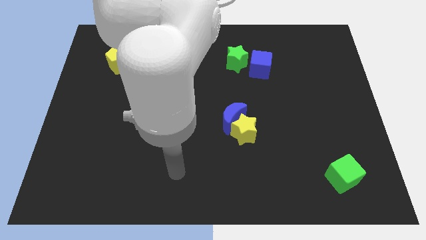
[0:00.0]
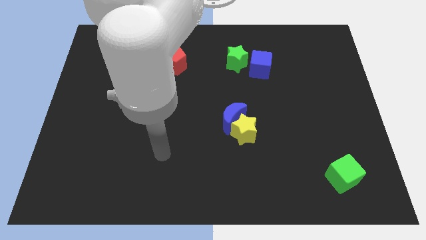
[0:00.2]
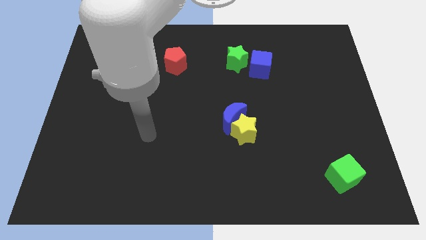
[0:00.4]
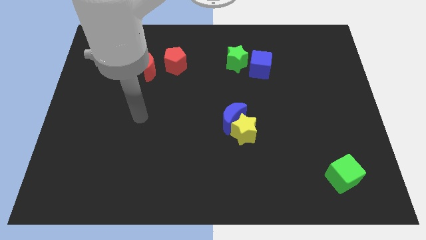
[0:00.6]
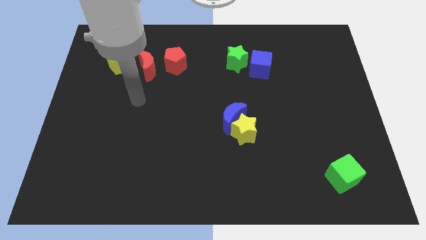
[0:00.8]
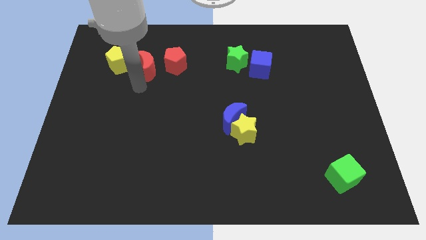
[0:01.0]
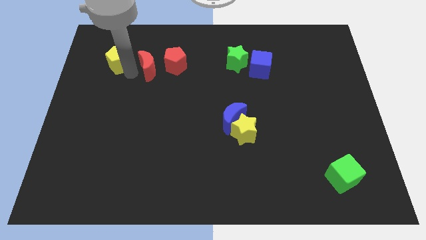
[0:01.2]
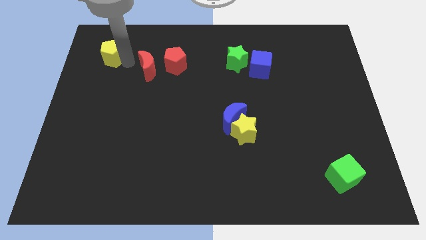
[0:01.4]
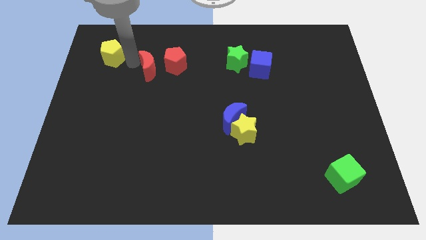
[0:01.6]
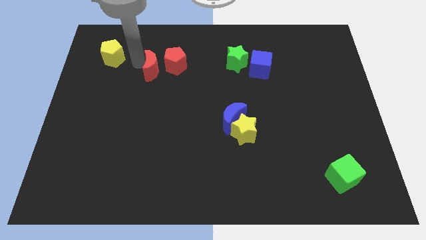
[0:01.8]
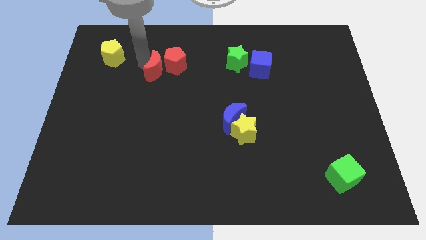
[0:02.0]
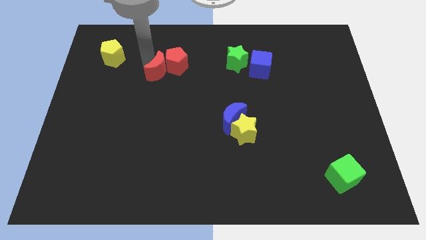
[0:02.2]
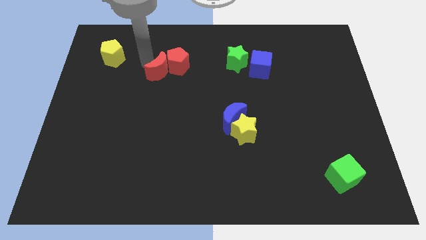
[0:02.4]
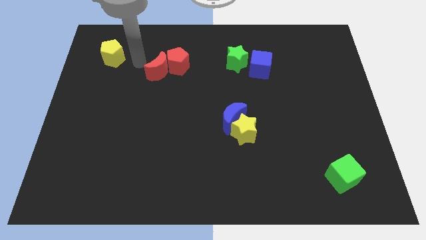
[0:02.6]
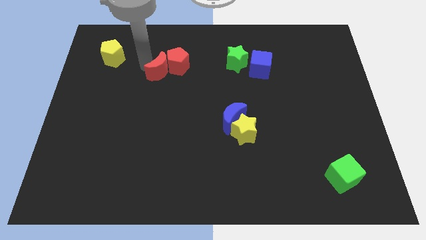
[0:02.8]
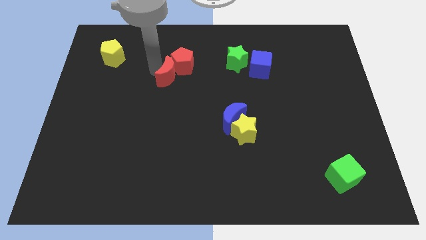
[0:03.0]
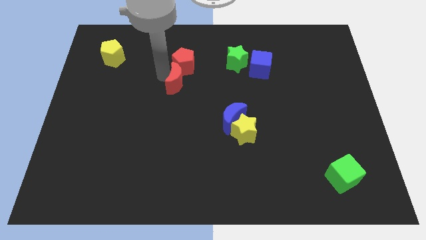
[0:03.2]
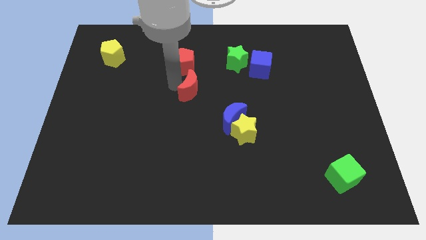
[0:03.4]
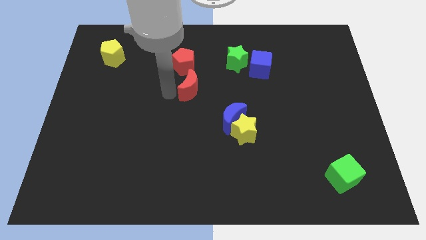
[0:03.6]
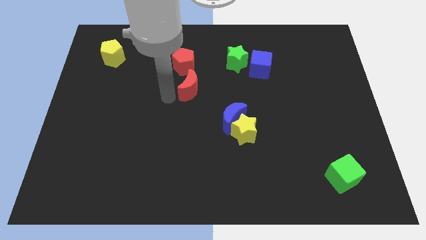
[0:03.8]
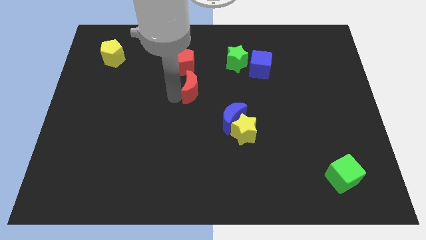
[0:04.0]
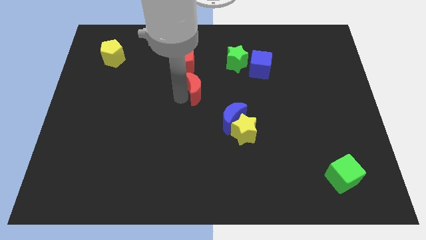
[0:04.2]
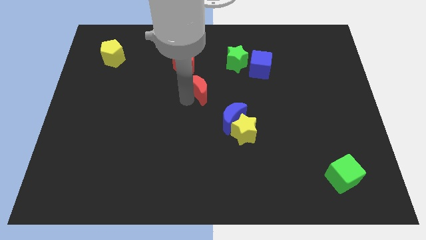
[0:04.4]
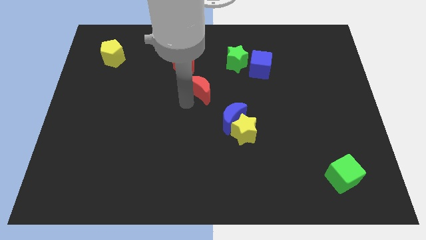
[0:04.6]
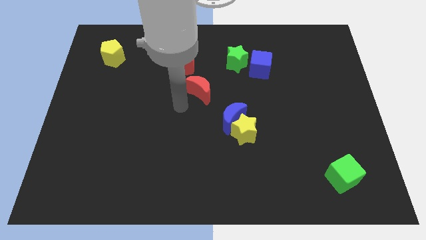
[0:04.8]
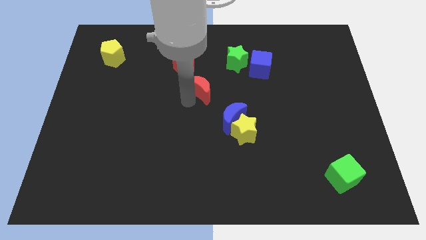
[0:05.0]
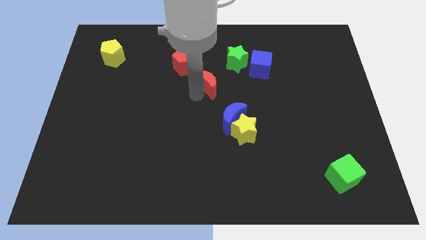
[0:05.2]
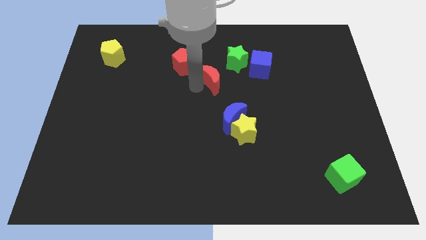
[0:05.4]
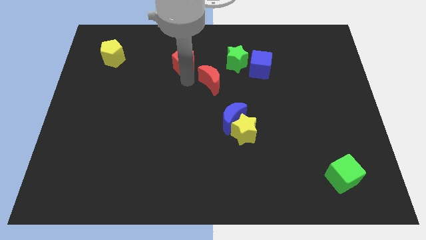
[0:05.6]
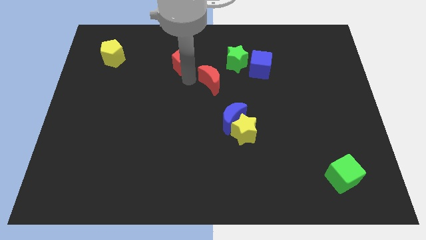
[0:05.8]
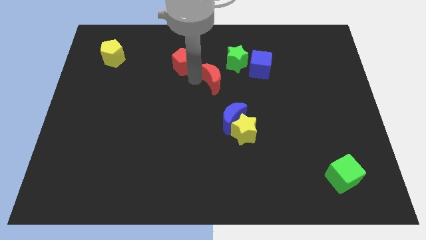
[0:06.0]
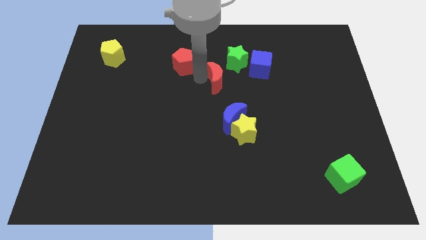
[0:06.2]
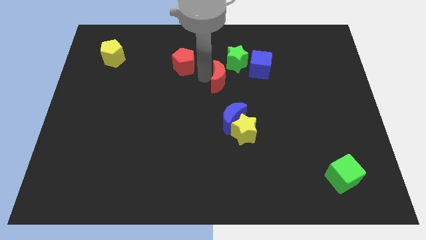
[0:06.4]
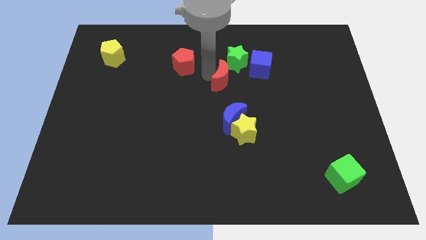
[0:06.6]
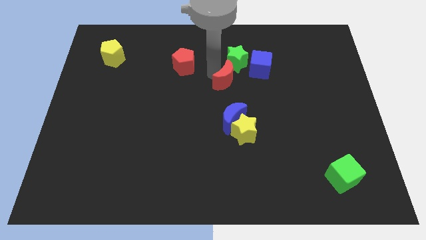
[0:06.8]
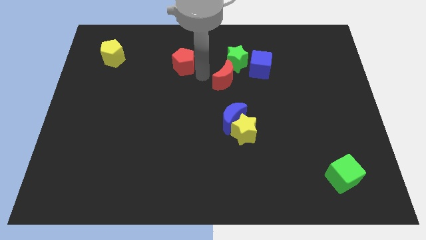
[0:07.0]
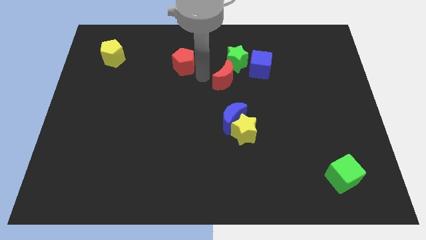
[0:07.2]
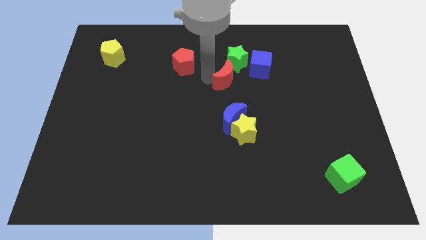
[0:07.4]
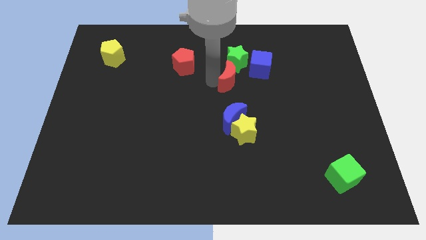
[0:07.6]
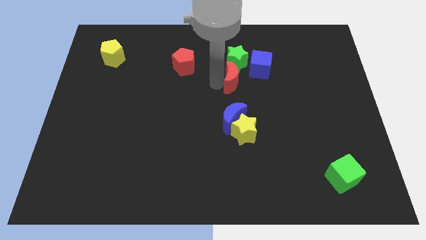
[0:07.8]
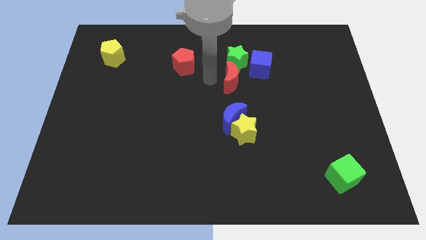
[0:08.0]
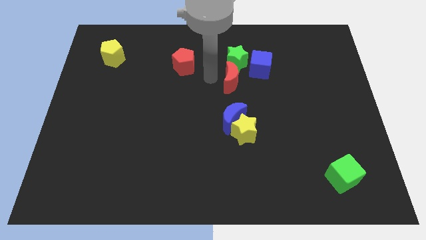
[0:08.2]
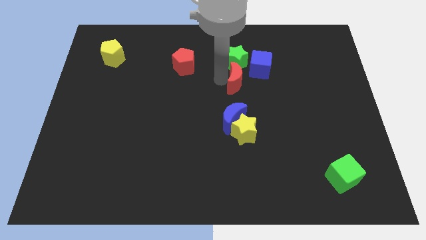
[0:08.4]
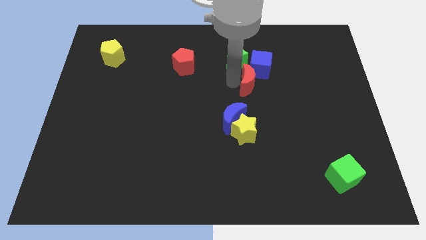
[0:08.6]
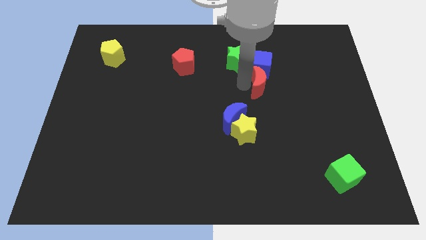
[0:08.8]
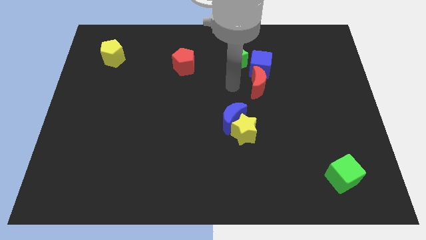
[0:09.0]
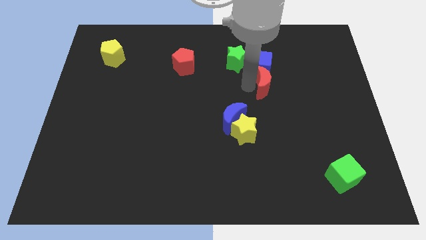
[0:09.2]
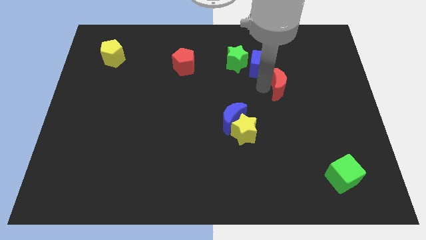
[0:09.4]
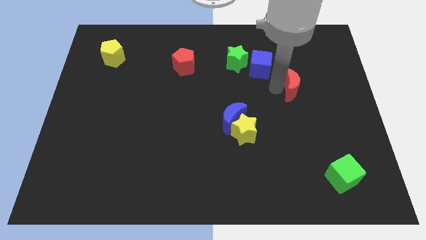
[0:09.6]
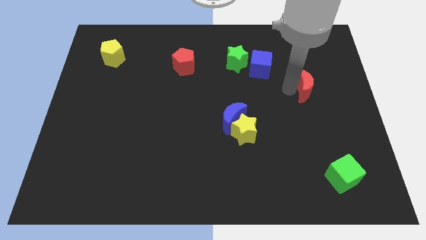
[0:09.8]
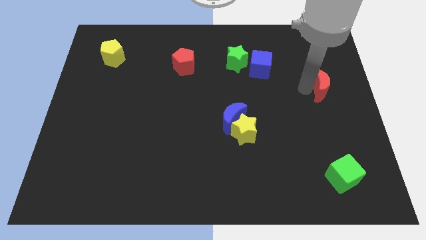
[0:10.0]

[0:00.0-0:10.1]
push the red moon to the right side of the board

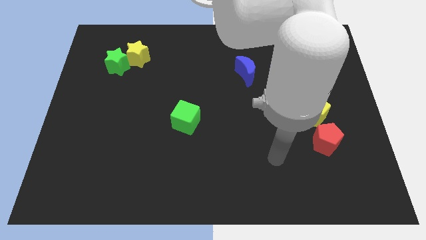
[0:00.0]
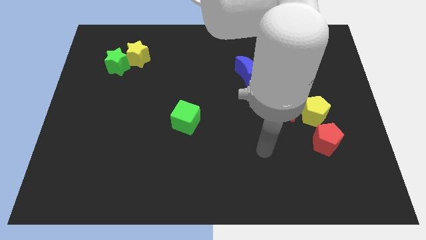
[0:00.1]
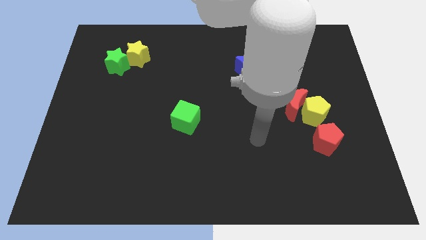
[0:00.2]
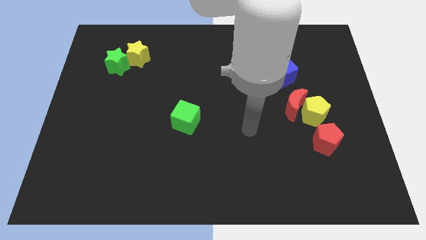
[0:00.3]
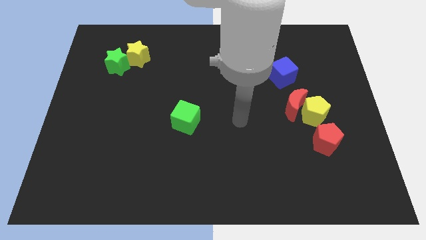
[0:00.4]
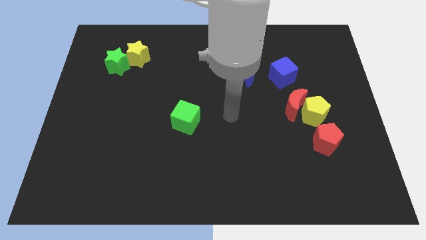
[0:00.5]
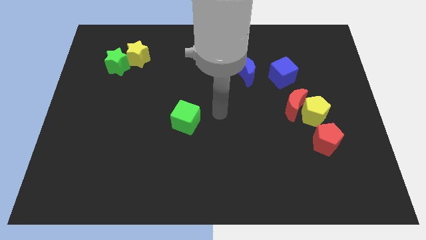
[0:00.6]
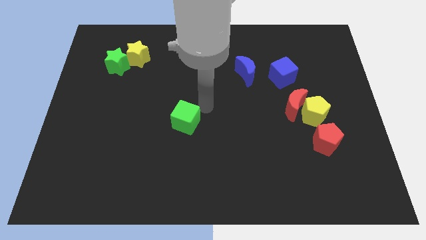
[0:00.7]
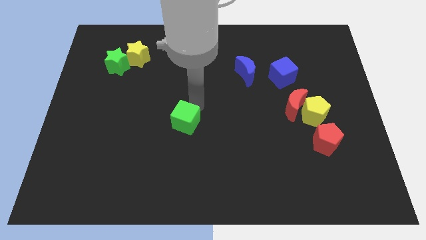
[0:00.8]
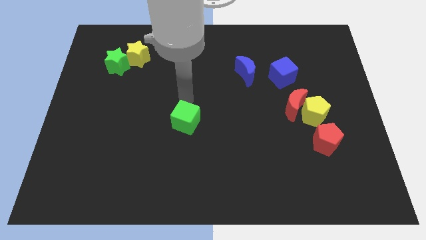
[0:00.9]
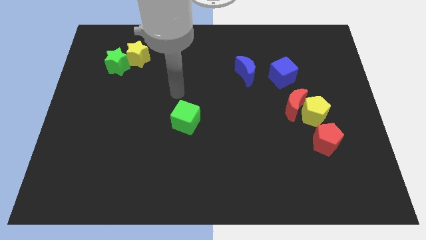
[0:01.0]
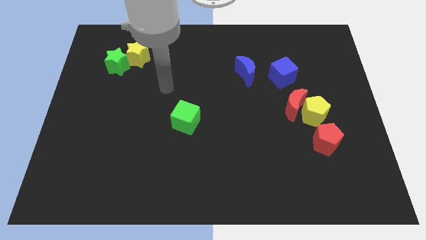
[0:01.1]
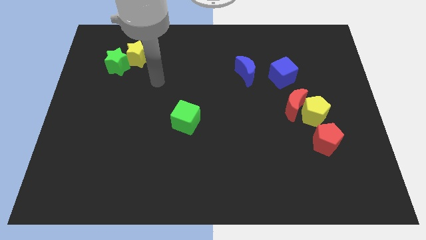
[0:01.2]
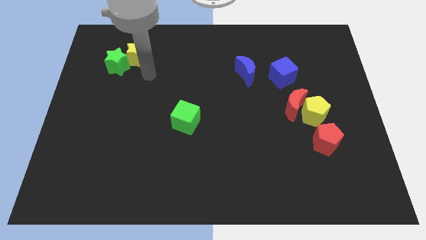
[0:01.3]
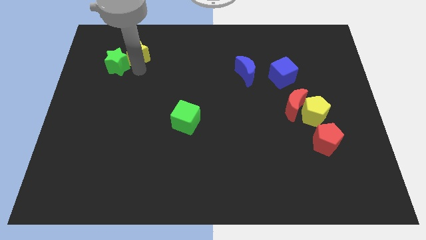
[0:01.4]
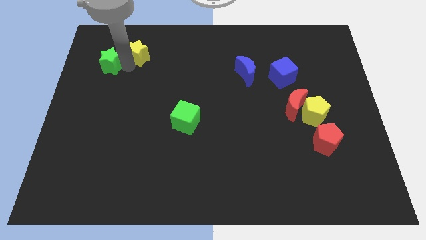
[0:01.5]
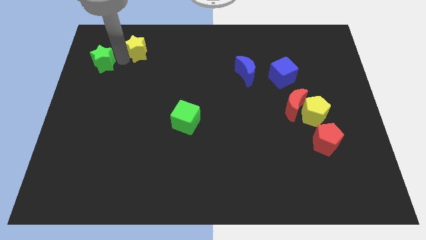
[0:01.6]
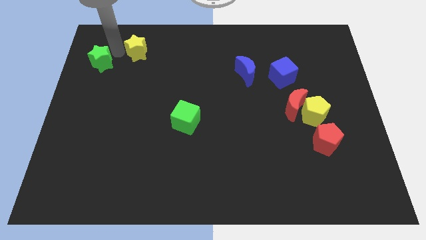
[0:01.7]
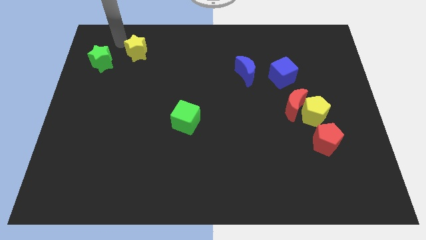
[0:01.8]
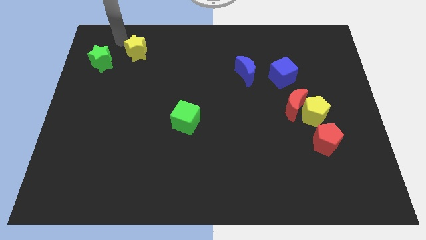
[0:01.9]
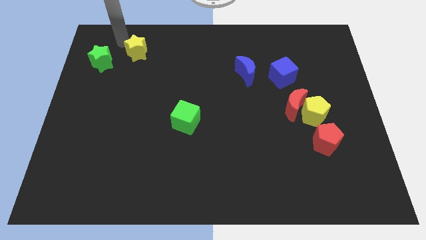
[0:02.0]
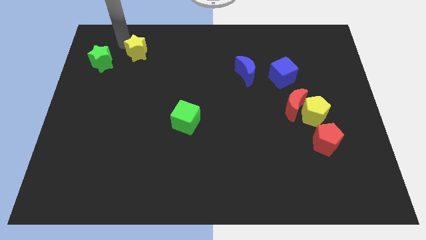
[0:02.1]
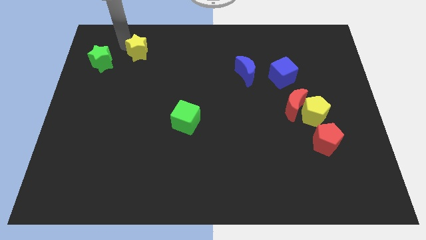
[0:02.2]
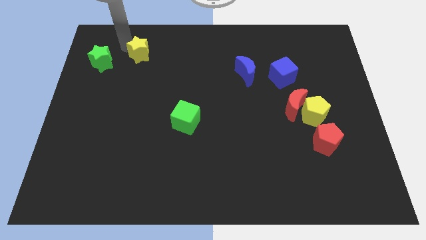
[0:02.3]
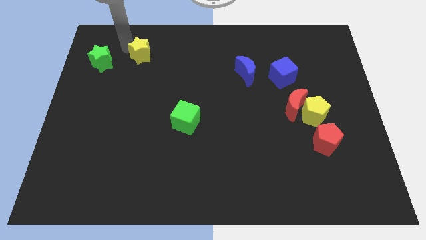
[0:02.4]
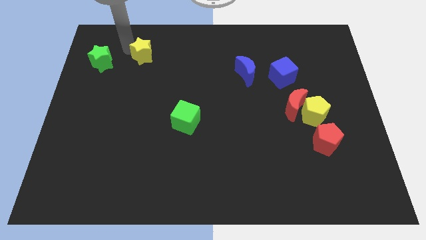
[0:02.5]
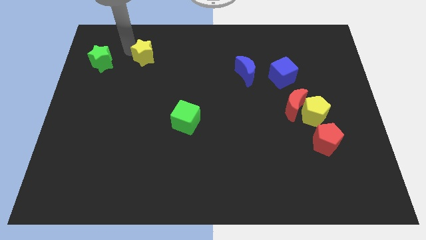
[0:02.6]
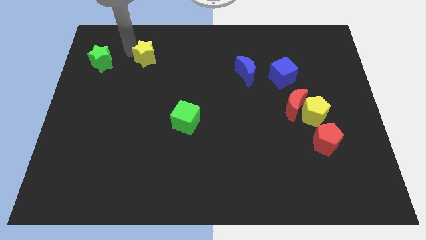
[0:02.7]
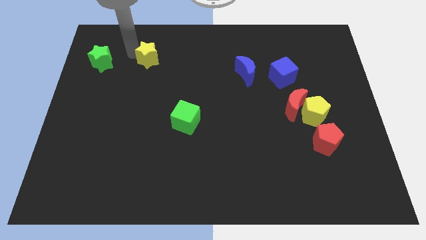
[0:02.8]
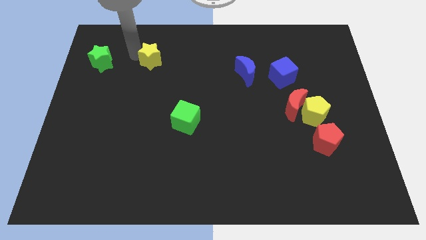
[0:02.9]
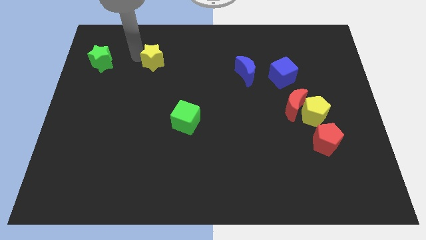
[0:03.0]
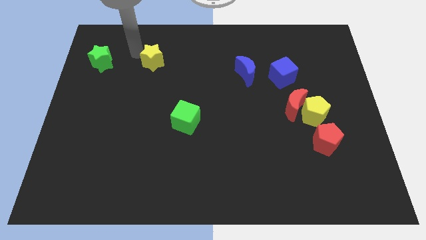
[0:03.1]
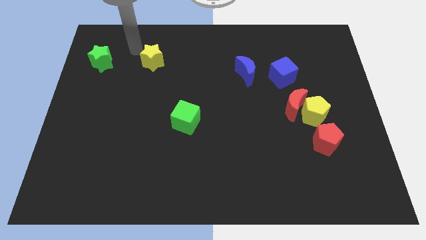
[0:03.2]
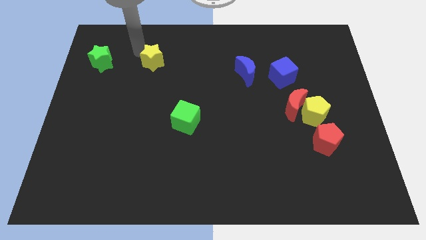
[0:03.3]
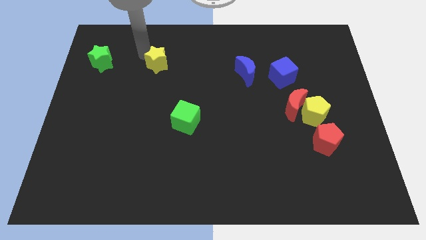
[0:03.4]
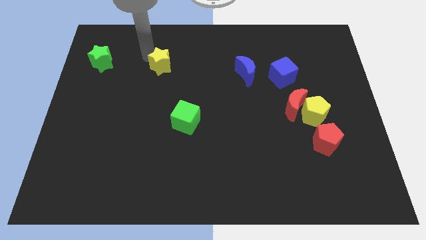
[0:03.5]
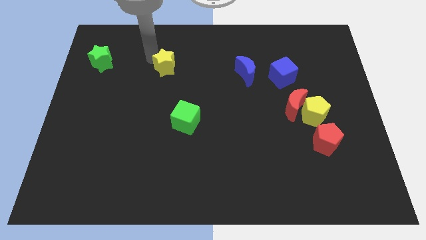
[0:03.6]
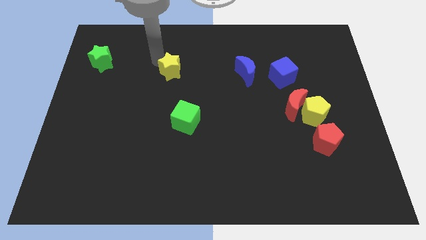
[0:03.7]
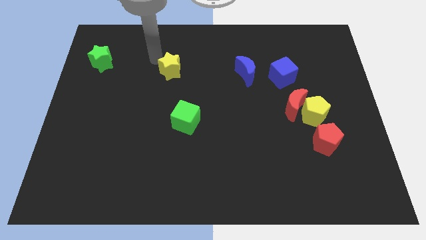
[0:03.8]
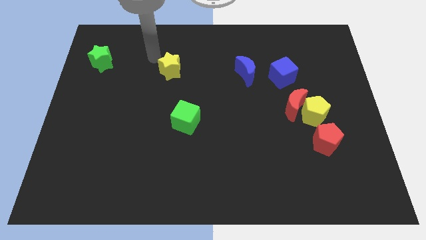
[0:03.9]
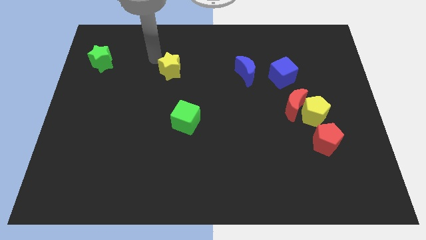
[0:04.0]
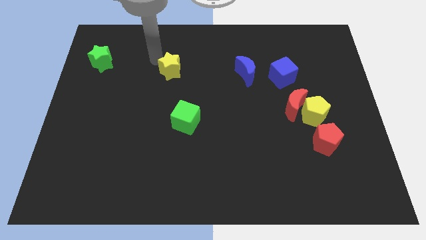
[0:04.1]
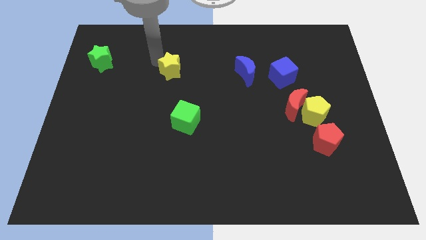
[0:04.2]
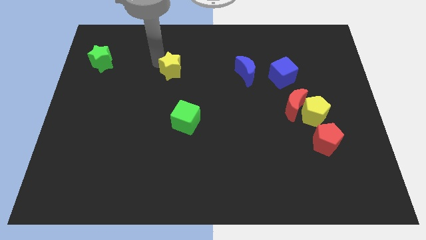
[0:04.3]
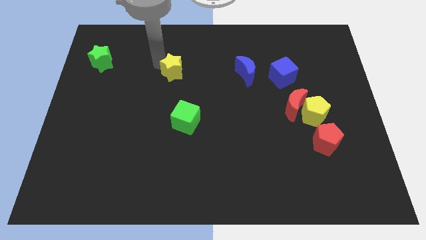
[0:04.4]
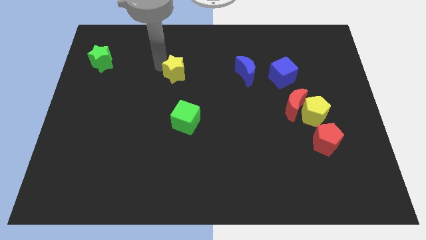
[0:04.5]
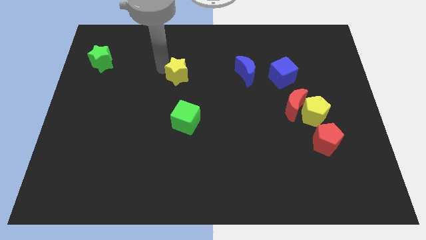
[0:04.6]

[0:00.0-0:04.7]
slide the yellow star to the center
